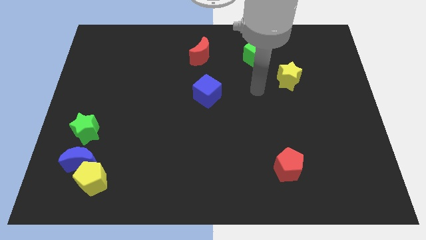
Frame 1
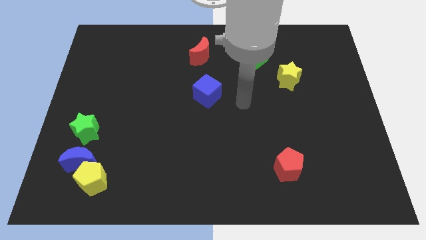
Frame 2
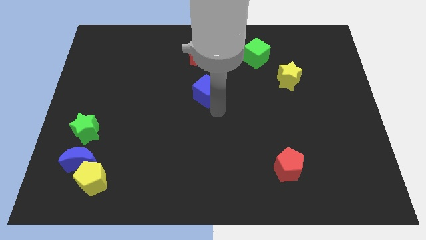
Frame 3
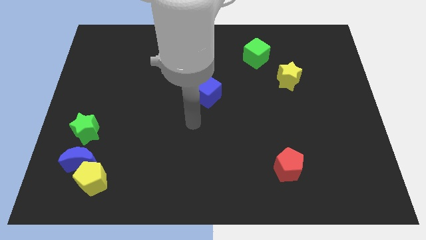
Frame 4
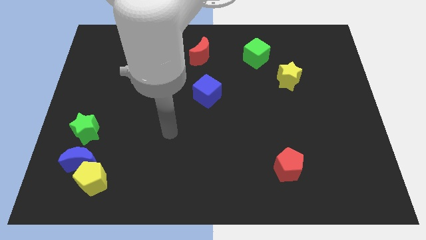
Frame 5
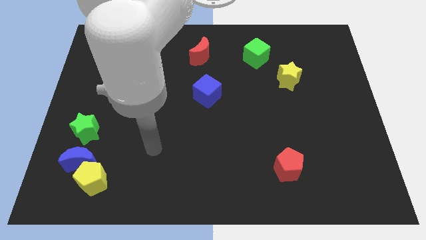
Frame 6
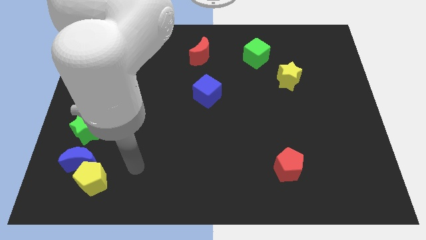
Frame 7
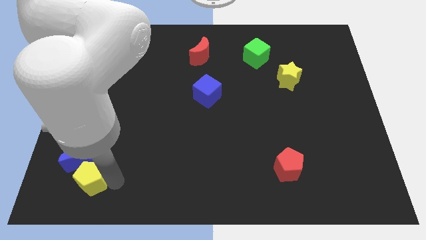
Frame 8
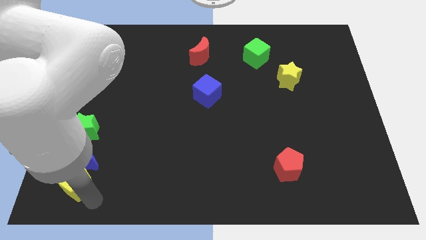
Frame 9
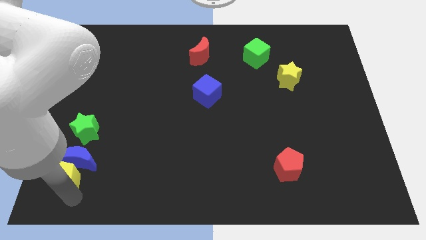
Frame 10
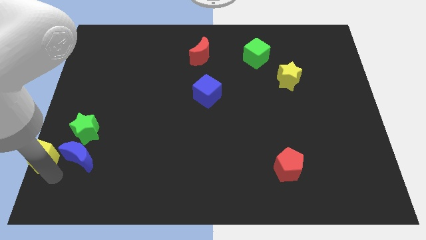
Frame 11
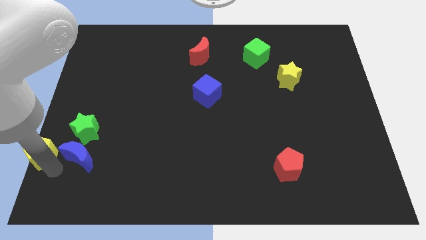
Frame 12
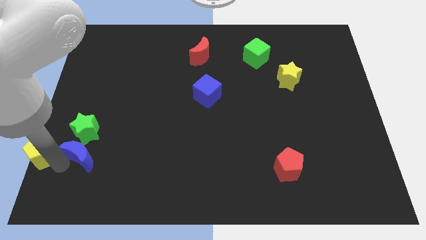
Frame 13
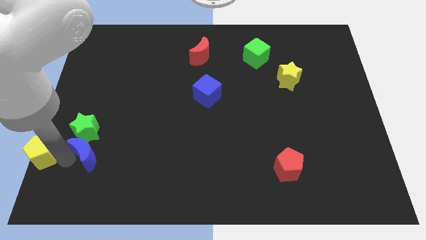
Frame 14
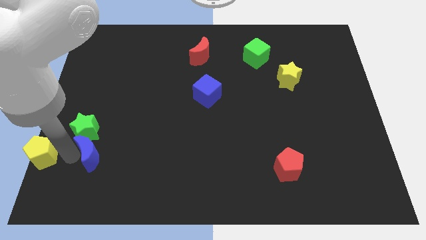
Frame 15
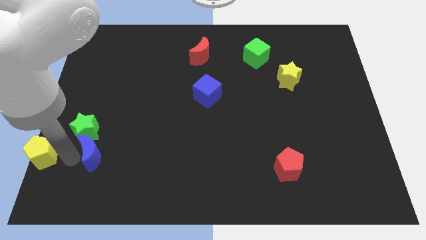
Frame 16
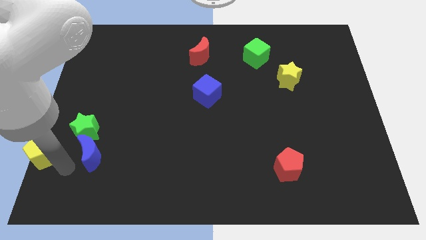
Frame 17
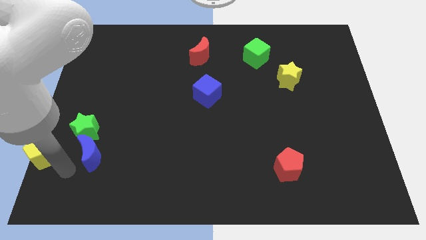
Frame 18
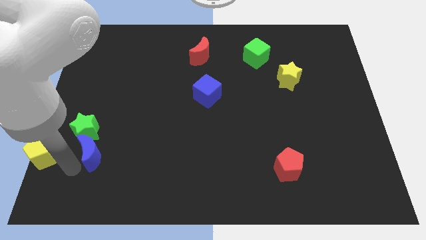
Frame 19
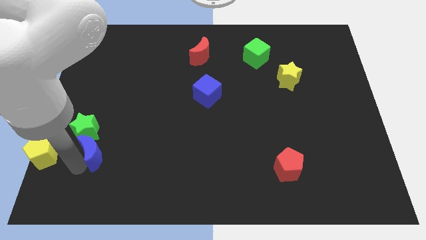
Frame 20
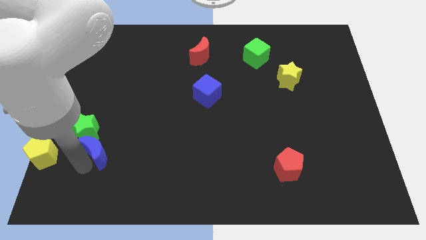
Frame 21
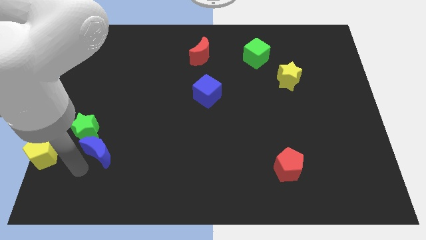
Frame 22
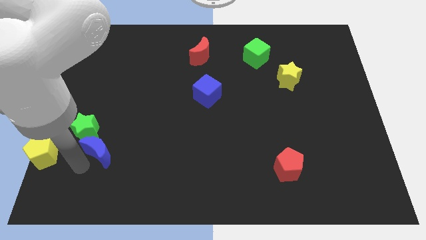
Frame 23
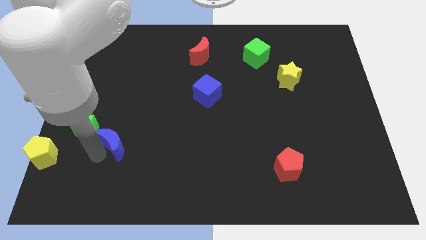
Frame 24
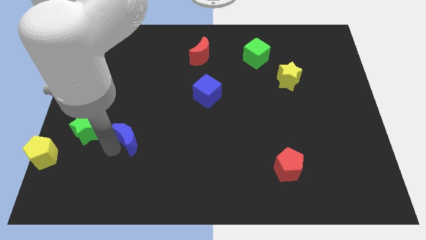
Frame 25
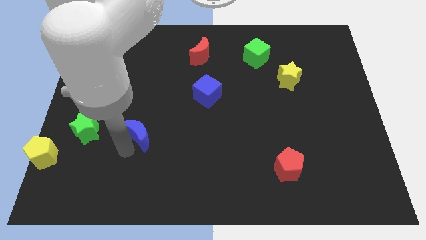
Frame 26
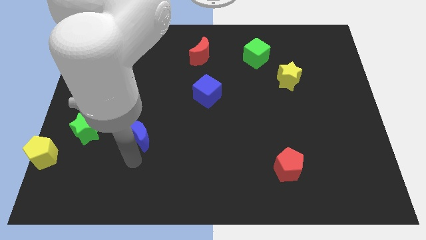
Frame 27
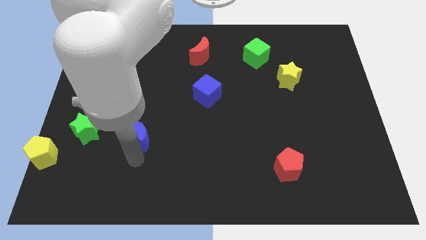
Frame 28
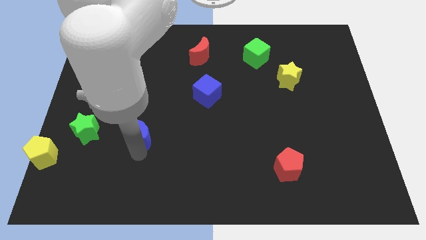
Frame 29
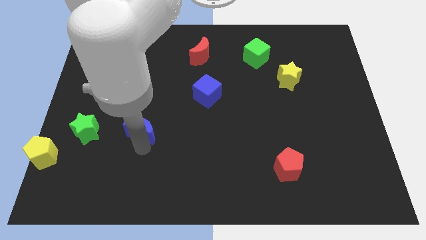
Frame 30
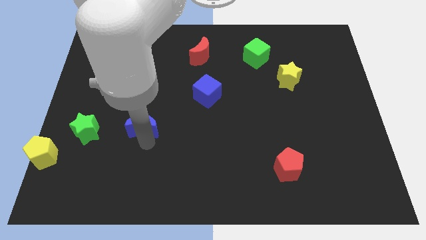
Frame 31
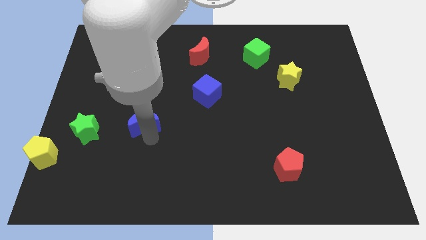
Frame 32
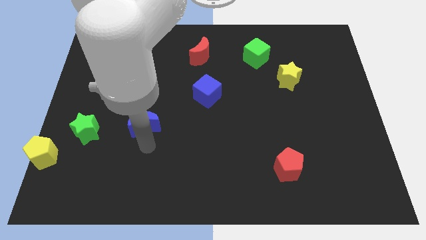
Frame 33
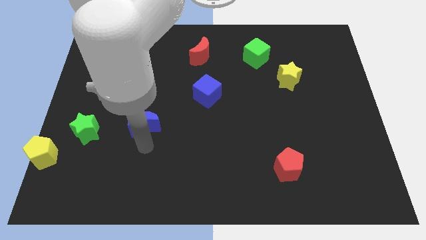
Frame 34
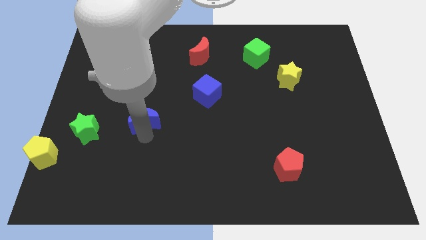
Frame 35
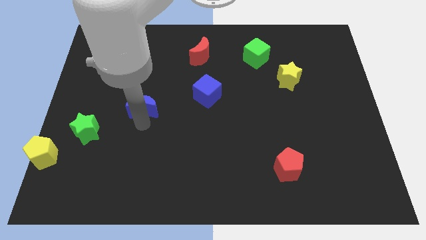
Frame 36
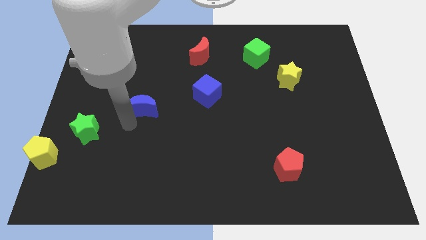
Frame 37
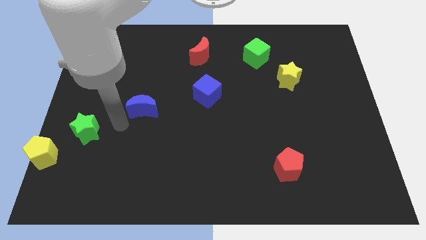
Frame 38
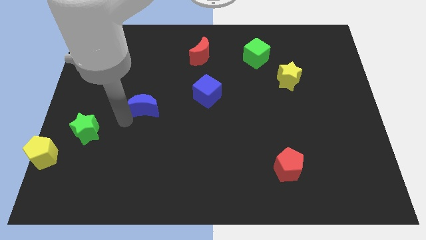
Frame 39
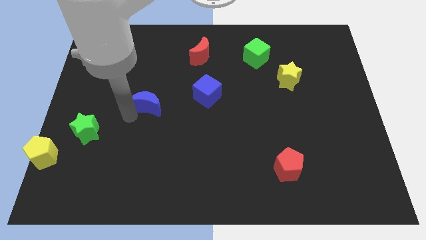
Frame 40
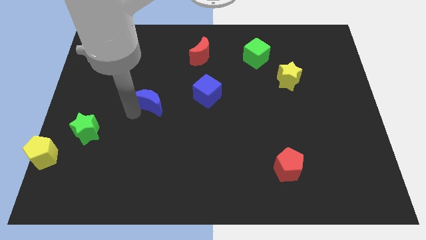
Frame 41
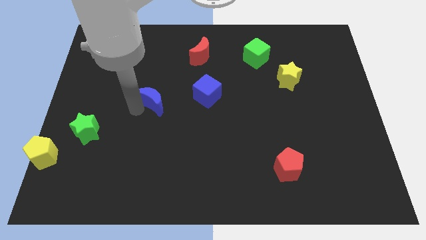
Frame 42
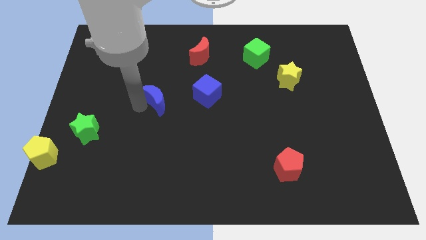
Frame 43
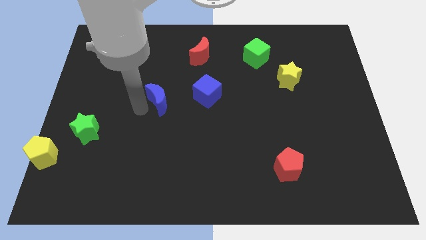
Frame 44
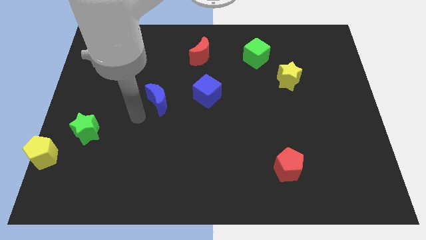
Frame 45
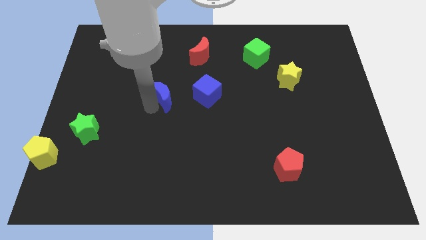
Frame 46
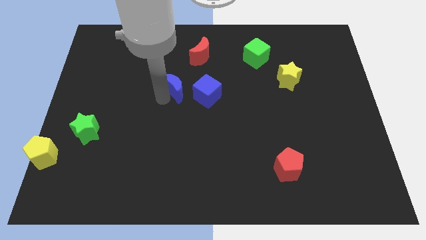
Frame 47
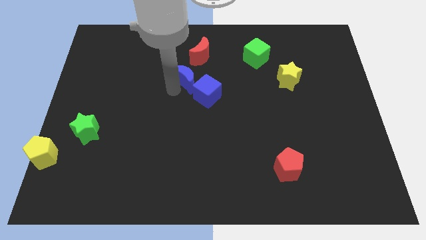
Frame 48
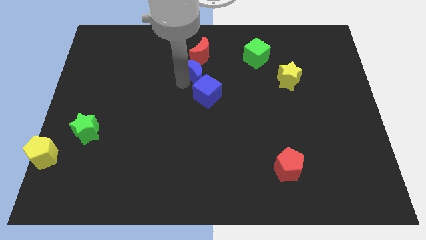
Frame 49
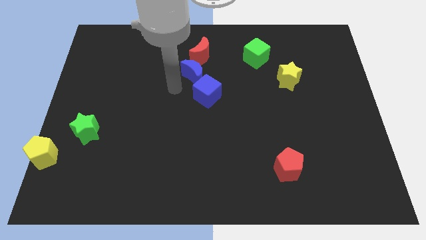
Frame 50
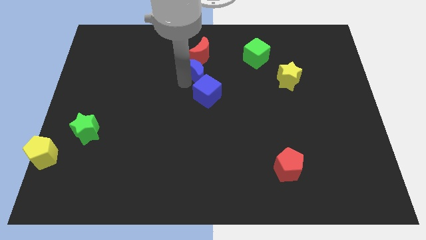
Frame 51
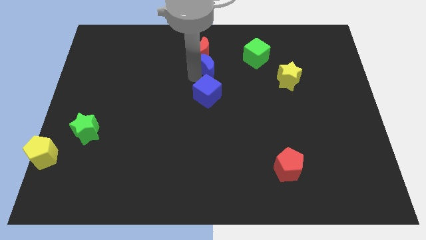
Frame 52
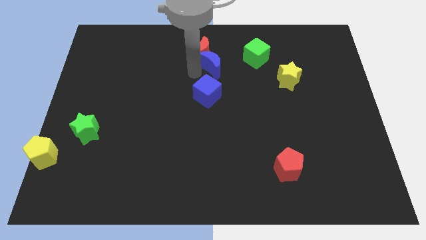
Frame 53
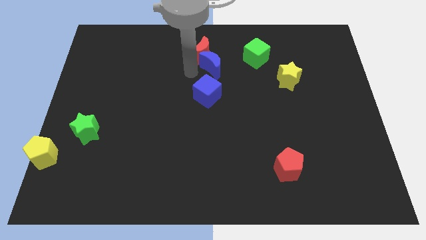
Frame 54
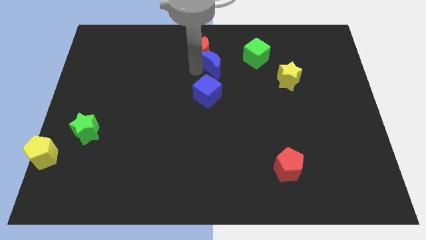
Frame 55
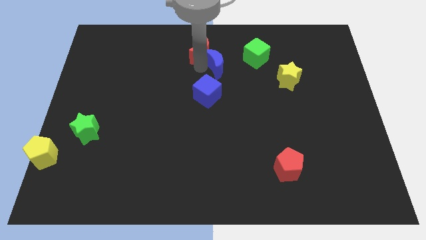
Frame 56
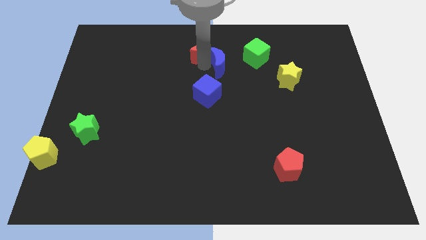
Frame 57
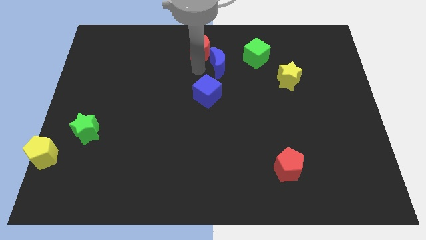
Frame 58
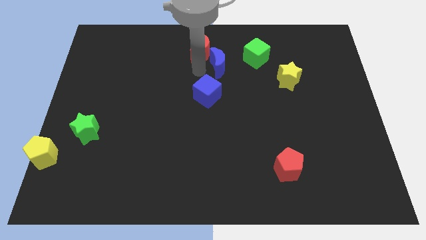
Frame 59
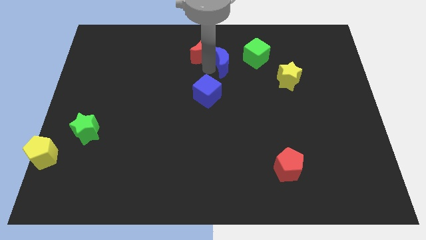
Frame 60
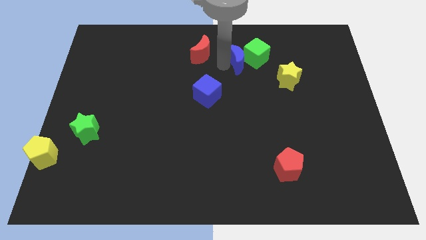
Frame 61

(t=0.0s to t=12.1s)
put the blue moon towards the green cube

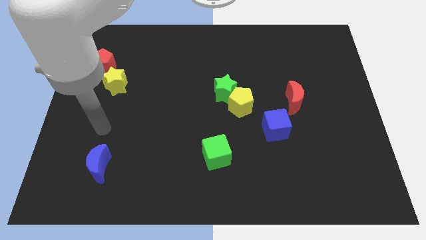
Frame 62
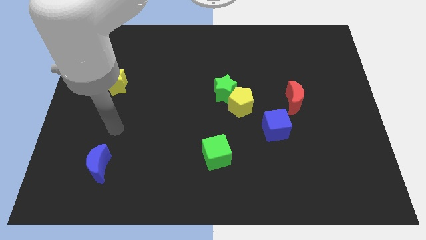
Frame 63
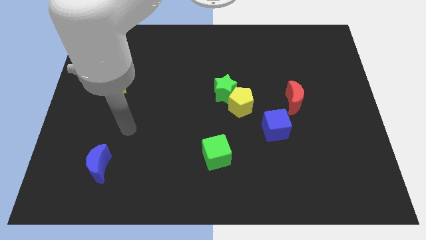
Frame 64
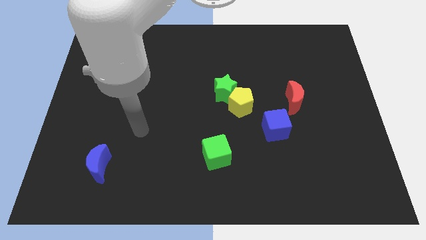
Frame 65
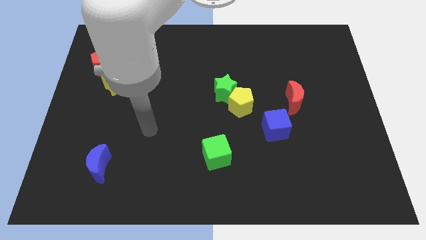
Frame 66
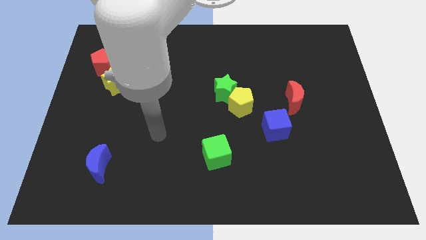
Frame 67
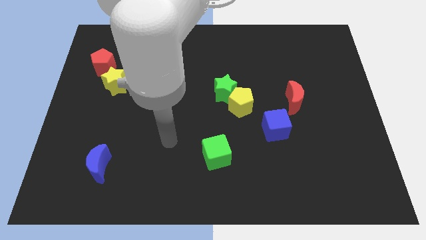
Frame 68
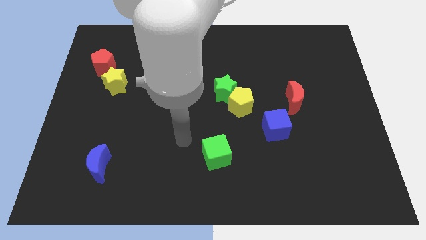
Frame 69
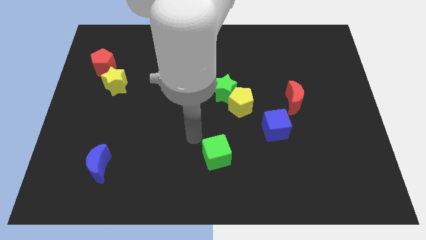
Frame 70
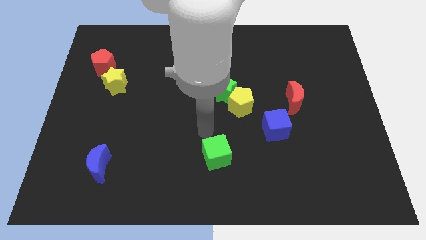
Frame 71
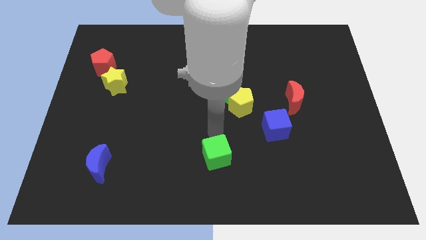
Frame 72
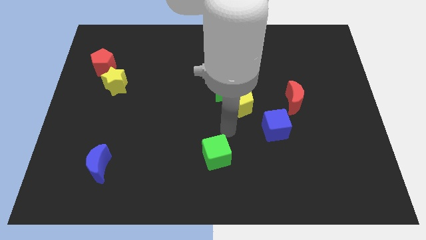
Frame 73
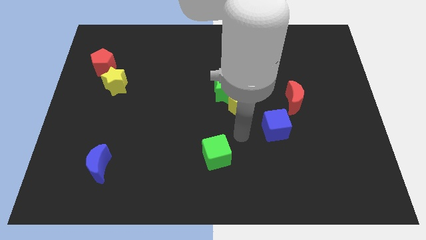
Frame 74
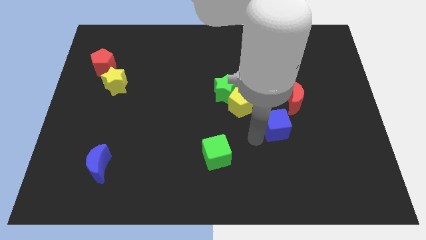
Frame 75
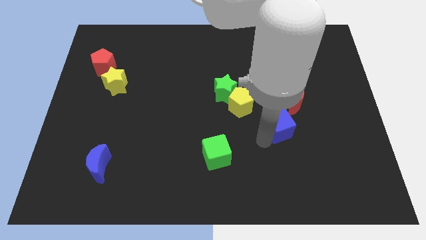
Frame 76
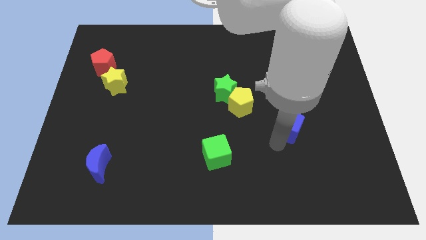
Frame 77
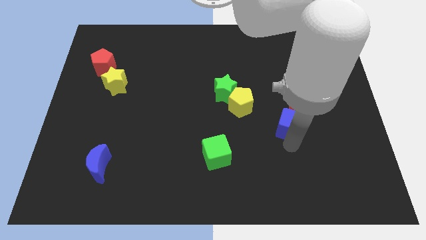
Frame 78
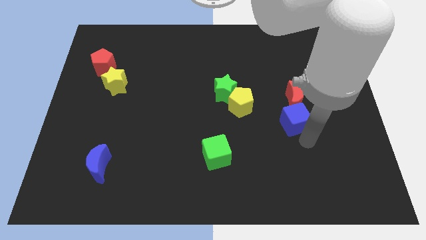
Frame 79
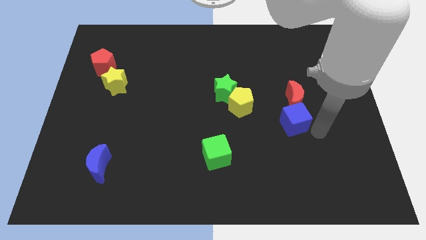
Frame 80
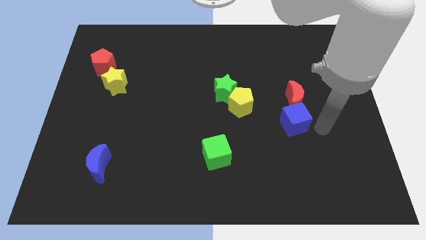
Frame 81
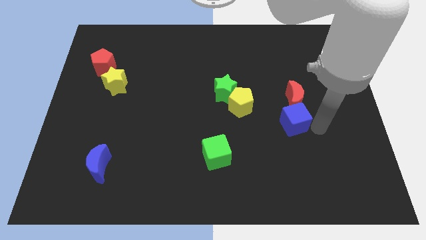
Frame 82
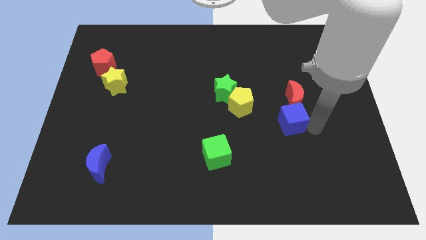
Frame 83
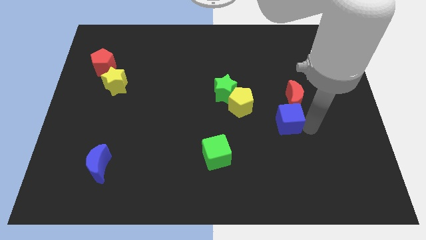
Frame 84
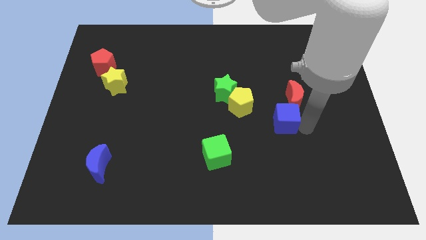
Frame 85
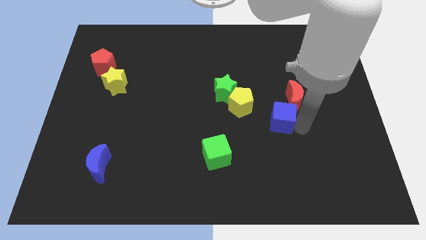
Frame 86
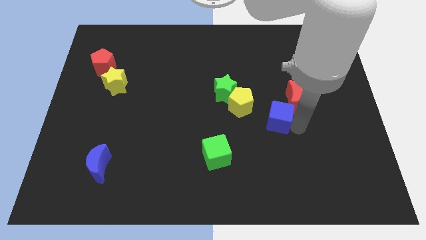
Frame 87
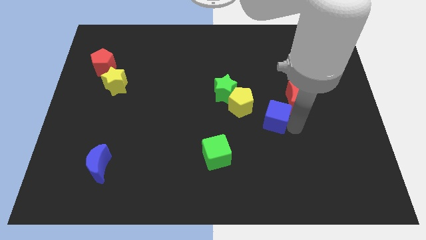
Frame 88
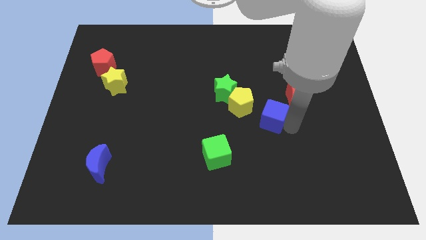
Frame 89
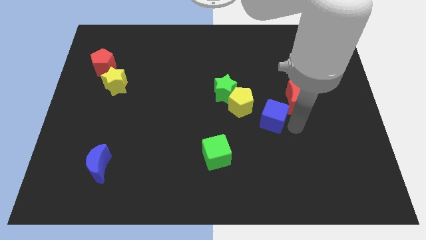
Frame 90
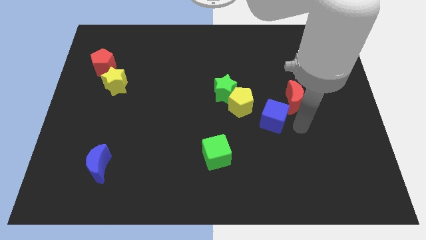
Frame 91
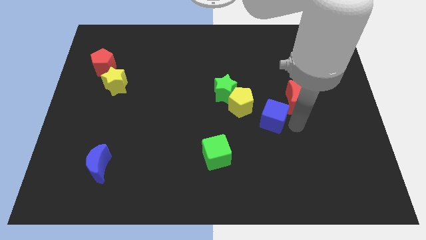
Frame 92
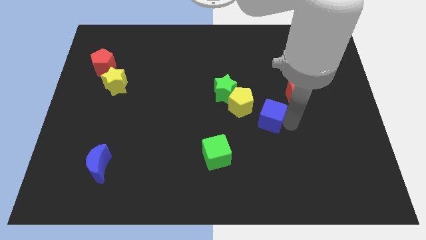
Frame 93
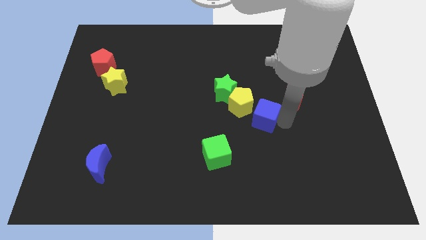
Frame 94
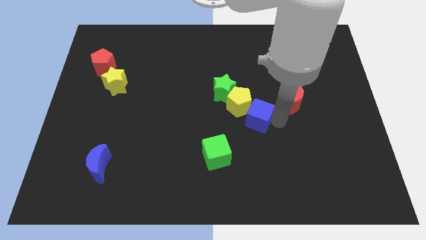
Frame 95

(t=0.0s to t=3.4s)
slide the blue cube towards the yellow pentagon
